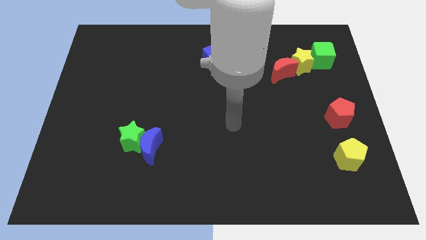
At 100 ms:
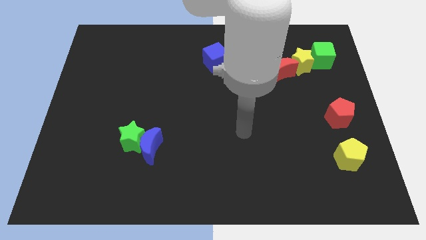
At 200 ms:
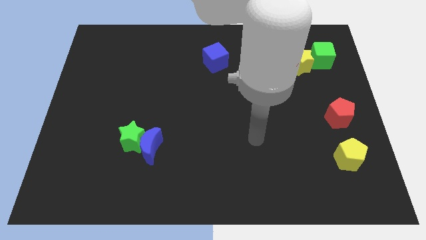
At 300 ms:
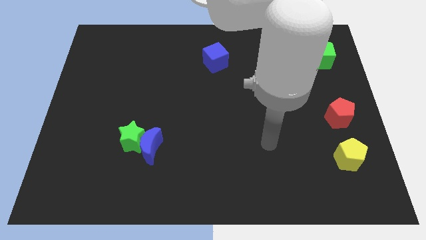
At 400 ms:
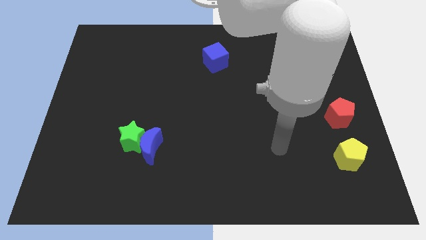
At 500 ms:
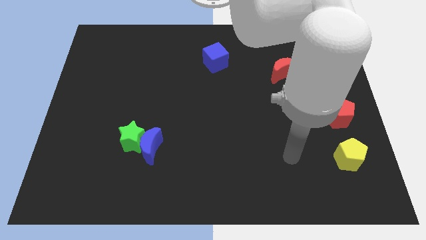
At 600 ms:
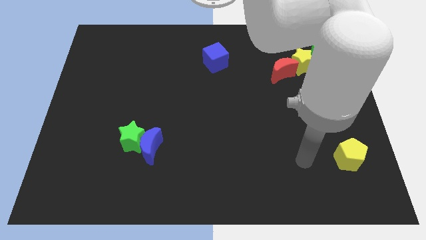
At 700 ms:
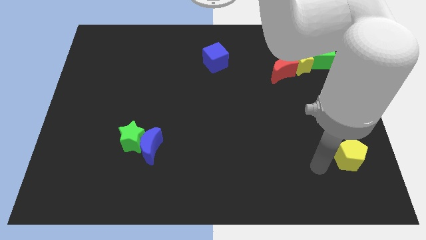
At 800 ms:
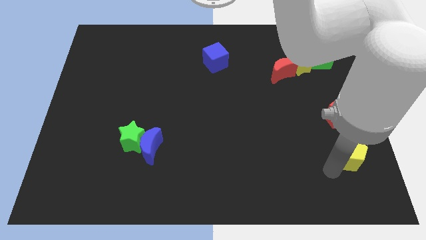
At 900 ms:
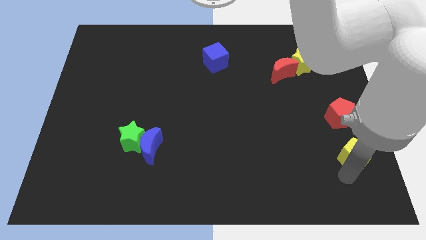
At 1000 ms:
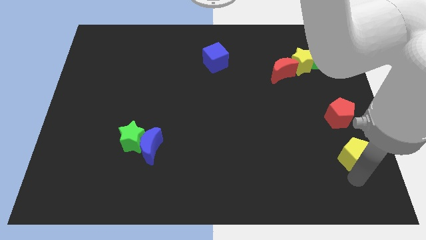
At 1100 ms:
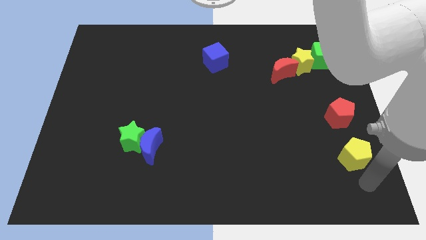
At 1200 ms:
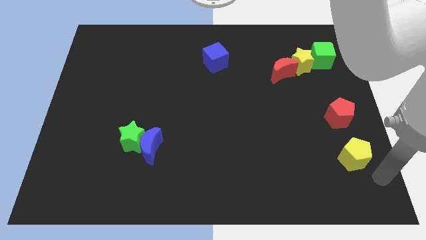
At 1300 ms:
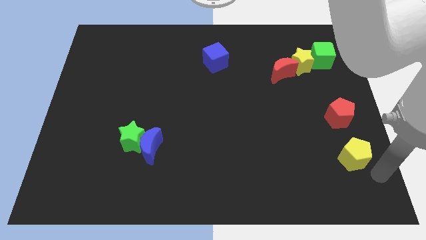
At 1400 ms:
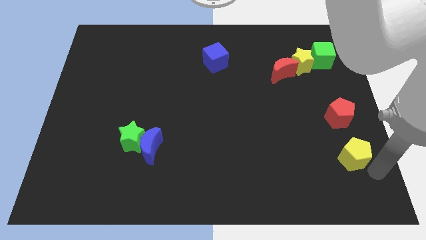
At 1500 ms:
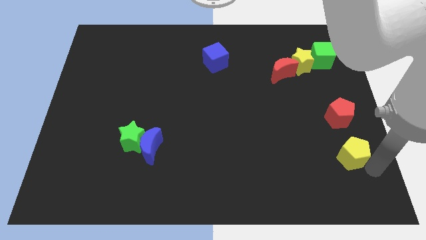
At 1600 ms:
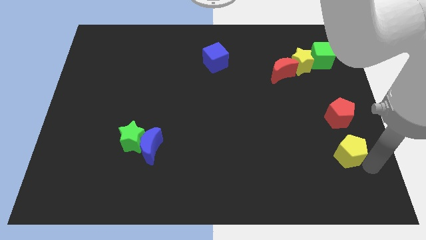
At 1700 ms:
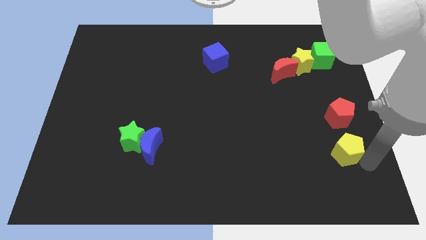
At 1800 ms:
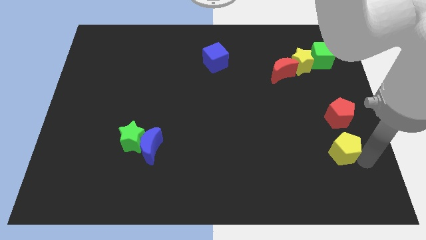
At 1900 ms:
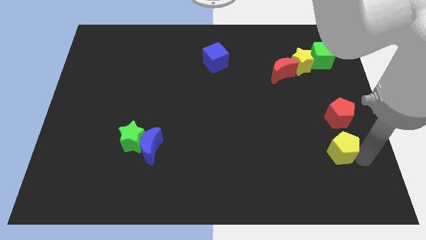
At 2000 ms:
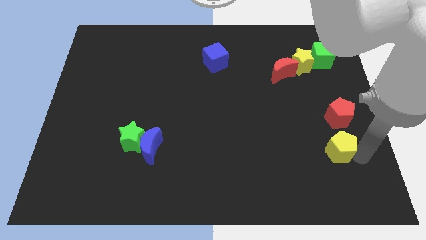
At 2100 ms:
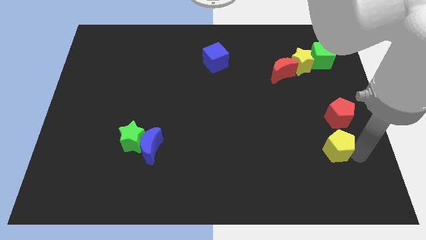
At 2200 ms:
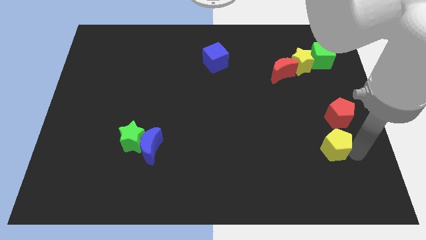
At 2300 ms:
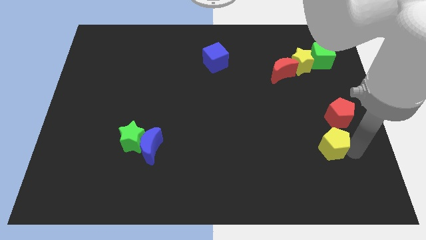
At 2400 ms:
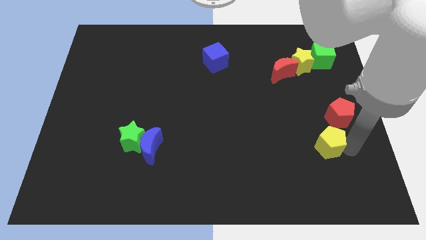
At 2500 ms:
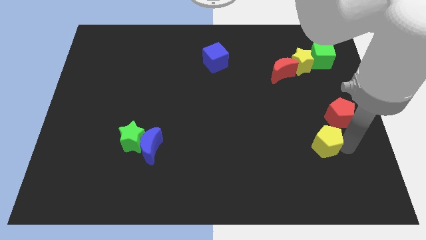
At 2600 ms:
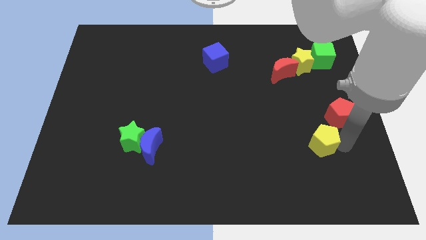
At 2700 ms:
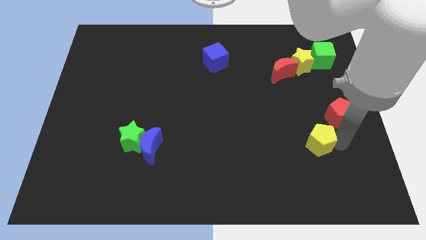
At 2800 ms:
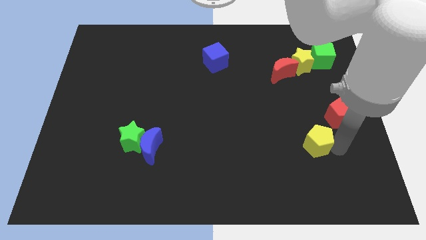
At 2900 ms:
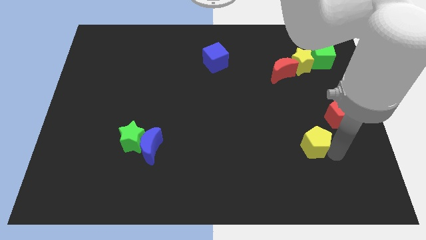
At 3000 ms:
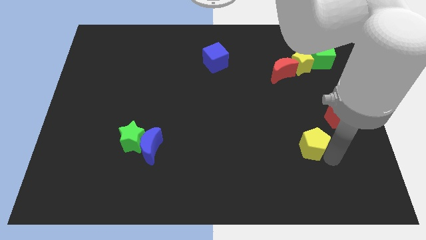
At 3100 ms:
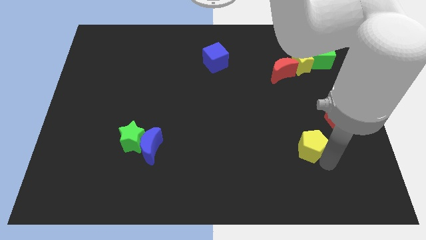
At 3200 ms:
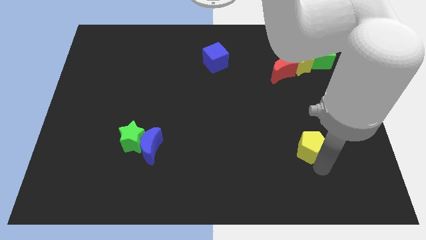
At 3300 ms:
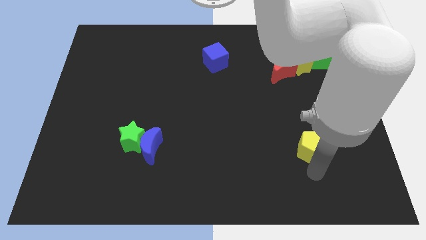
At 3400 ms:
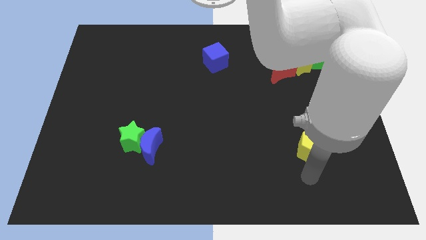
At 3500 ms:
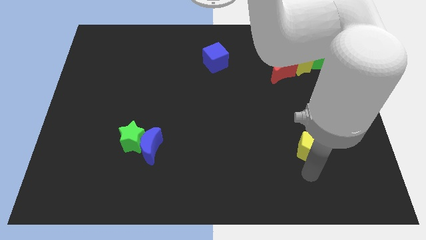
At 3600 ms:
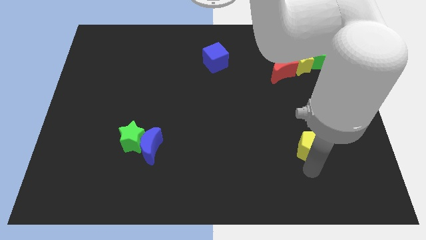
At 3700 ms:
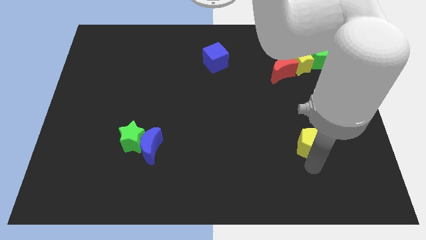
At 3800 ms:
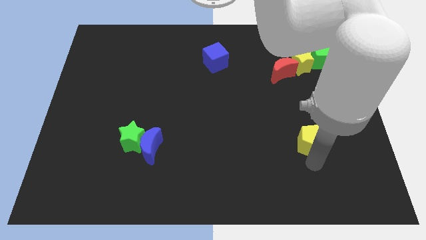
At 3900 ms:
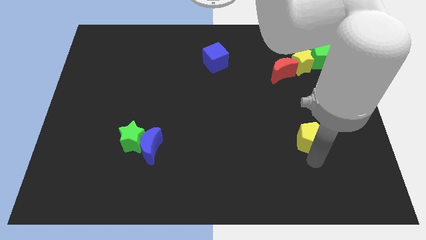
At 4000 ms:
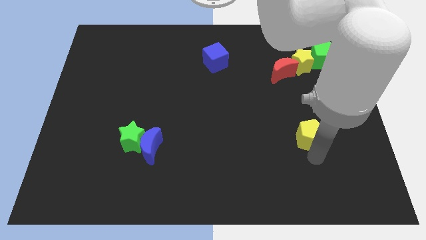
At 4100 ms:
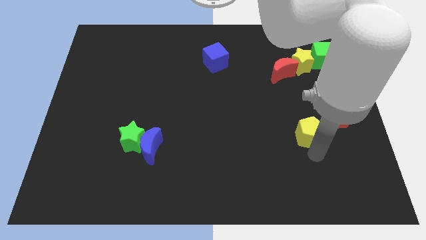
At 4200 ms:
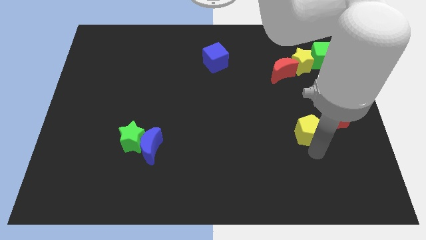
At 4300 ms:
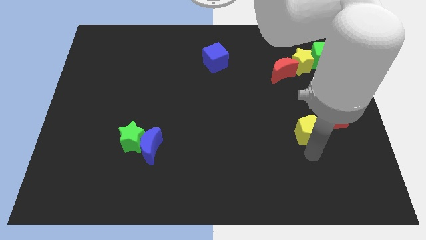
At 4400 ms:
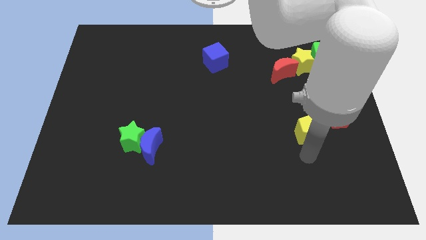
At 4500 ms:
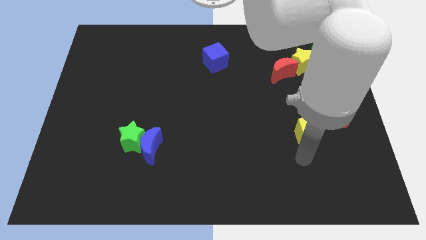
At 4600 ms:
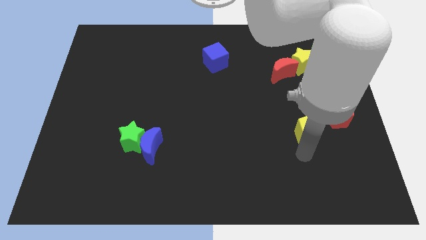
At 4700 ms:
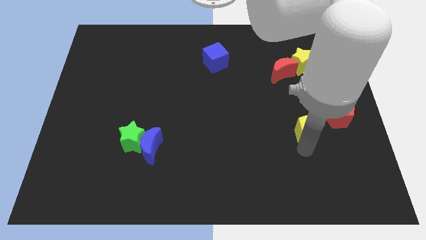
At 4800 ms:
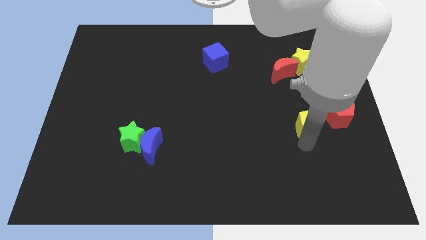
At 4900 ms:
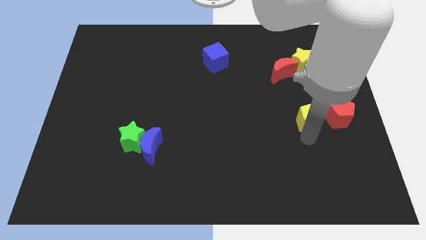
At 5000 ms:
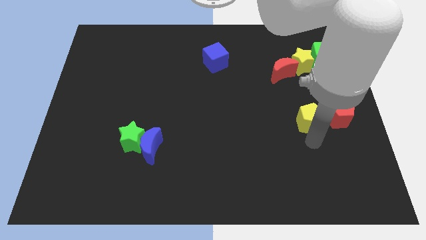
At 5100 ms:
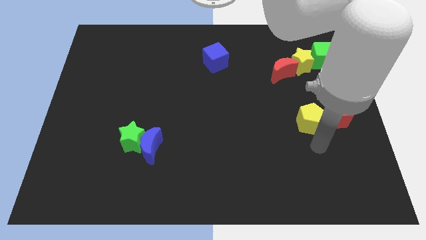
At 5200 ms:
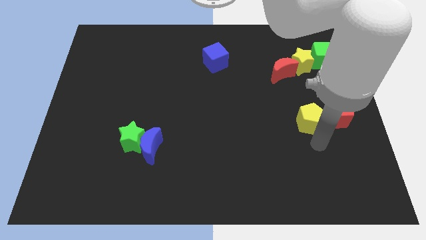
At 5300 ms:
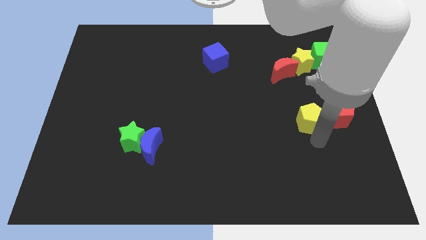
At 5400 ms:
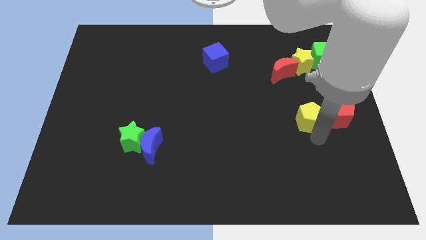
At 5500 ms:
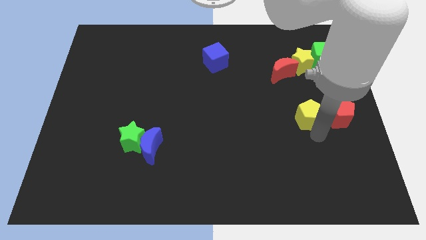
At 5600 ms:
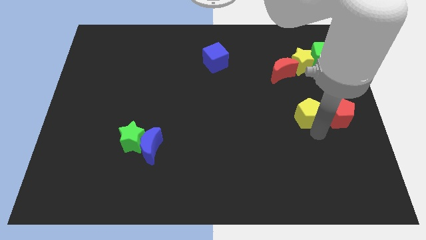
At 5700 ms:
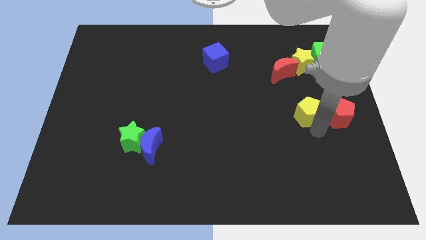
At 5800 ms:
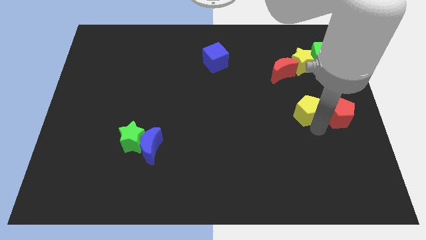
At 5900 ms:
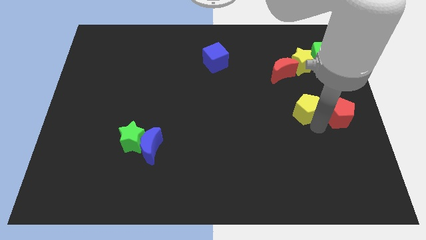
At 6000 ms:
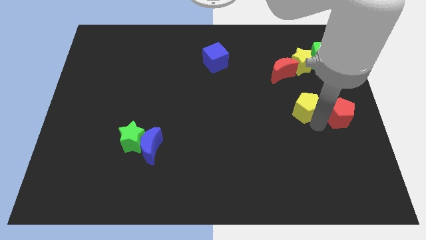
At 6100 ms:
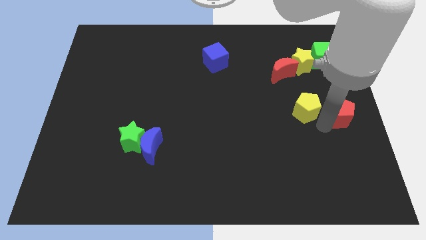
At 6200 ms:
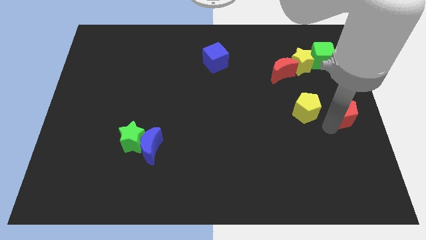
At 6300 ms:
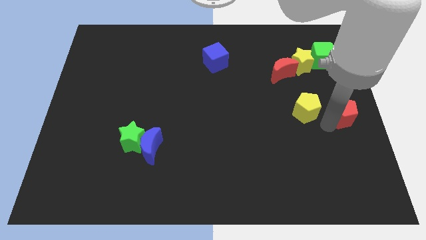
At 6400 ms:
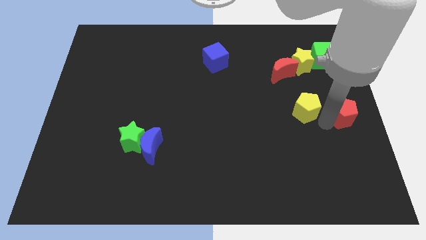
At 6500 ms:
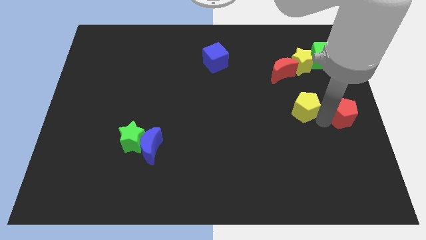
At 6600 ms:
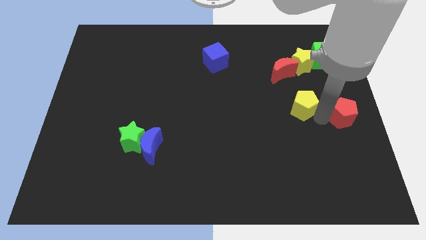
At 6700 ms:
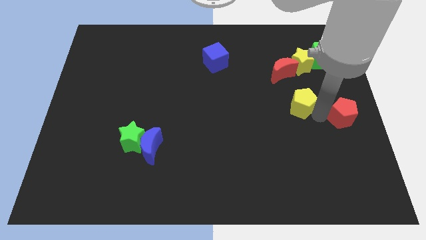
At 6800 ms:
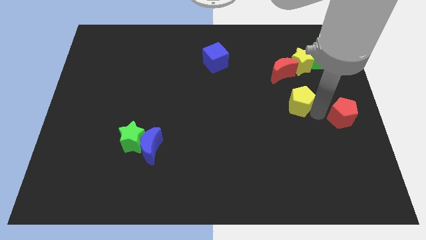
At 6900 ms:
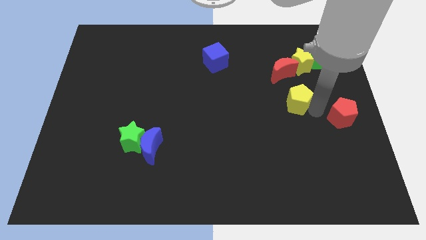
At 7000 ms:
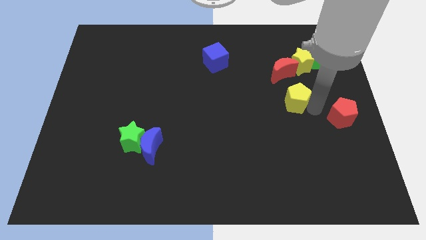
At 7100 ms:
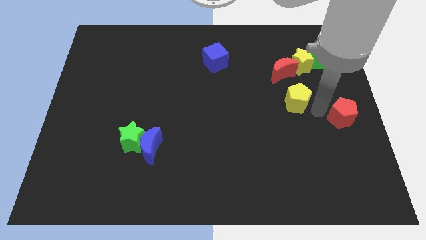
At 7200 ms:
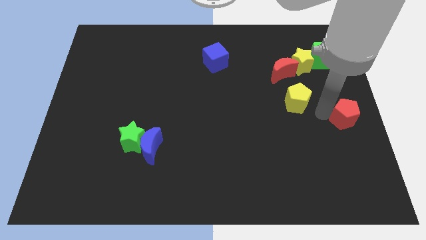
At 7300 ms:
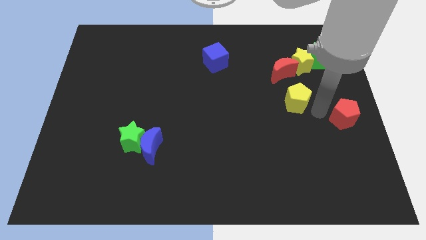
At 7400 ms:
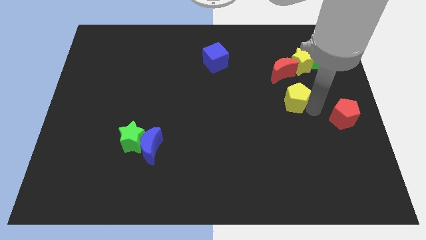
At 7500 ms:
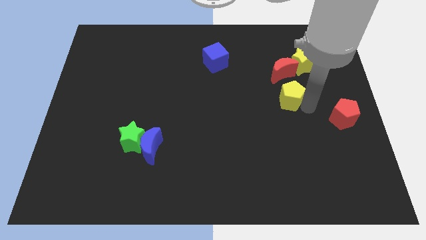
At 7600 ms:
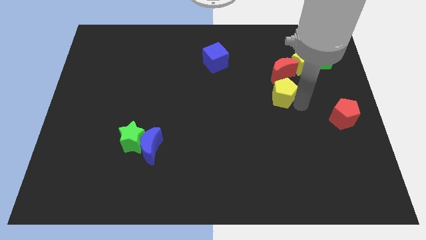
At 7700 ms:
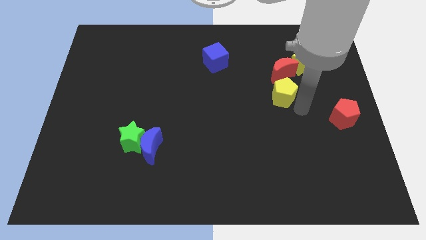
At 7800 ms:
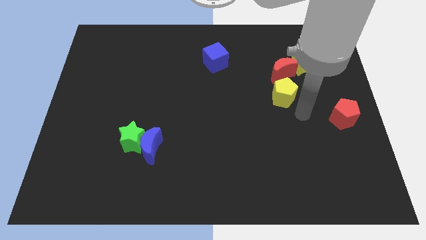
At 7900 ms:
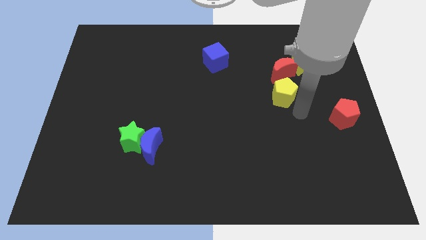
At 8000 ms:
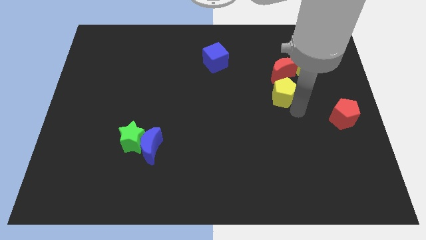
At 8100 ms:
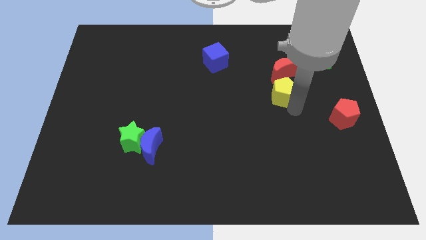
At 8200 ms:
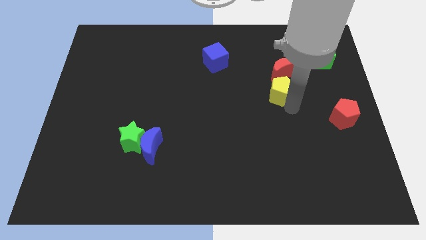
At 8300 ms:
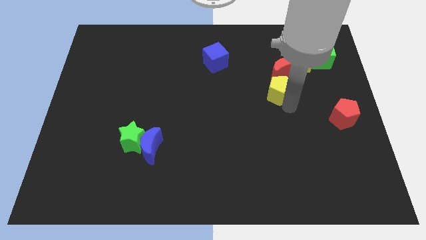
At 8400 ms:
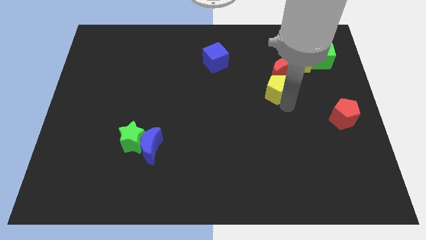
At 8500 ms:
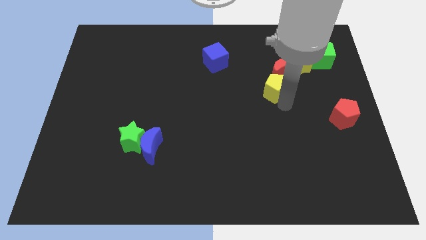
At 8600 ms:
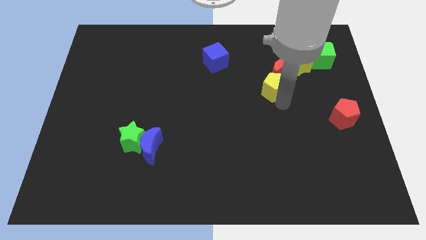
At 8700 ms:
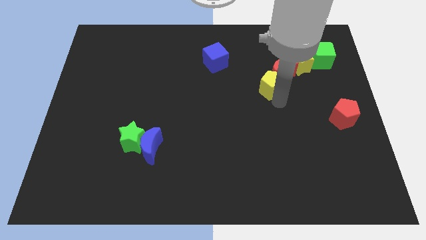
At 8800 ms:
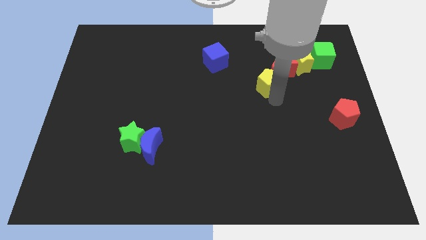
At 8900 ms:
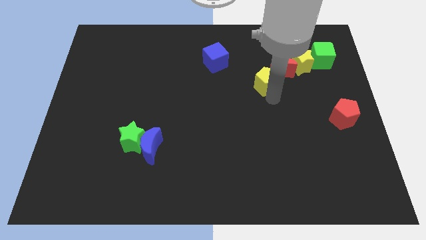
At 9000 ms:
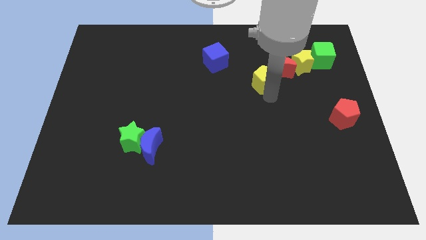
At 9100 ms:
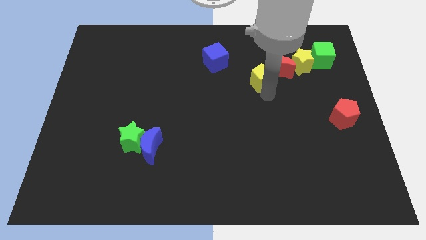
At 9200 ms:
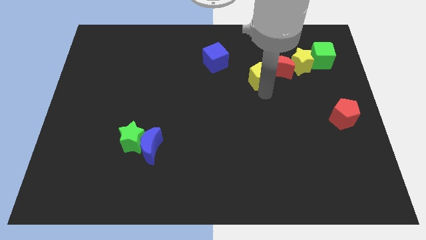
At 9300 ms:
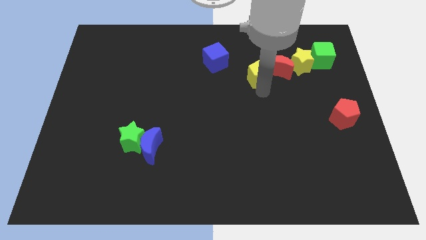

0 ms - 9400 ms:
move the yellow pentagon to the left of the yellow star
